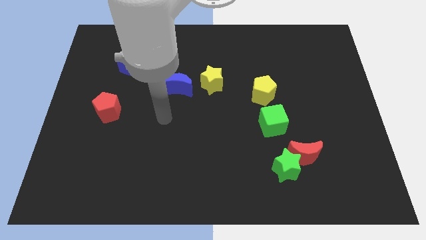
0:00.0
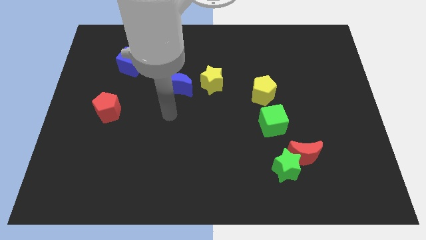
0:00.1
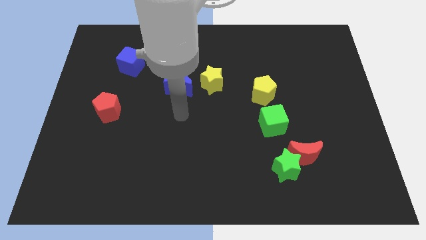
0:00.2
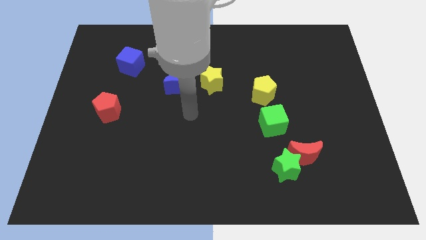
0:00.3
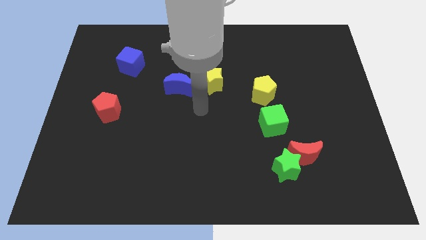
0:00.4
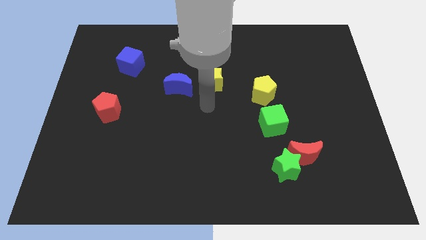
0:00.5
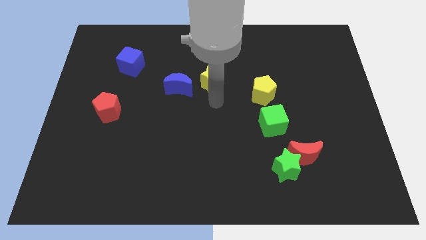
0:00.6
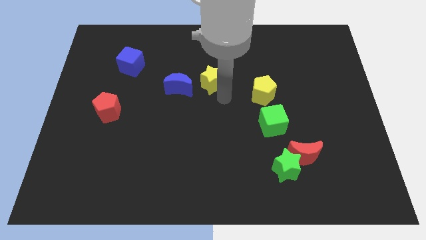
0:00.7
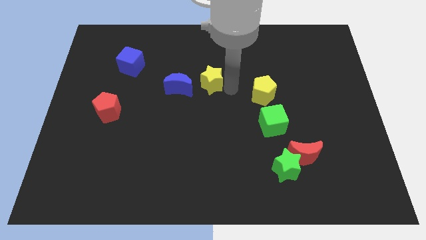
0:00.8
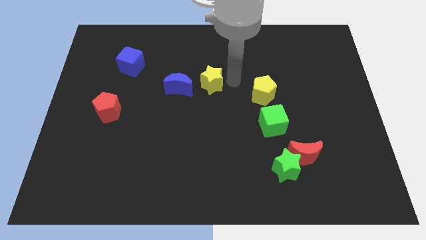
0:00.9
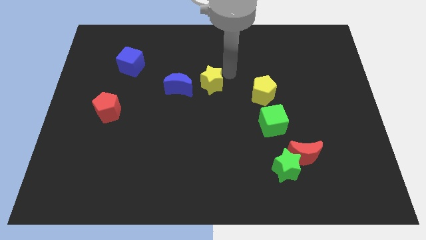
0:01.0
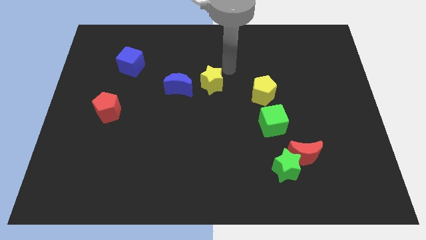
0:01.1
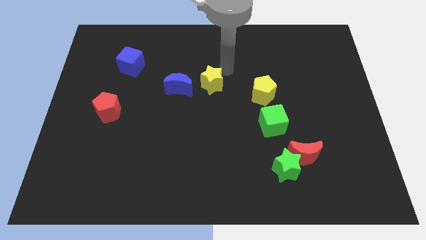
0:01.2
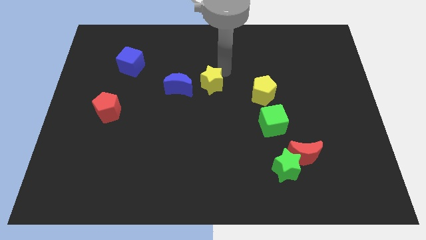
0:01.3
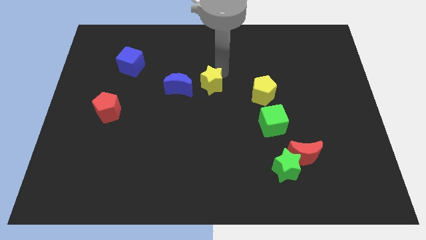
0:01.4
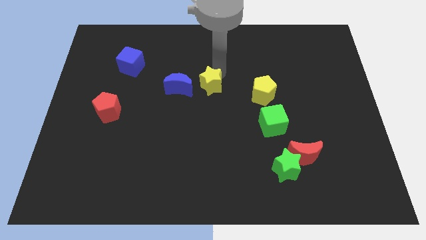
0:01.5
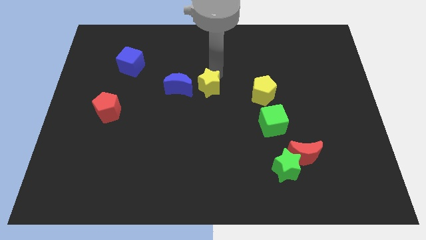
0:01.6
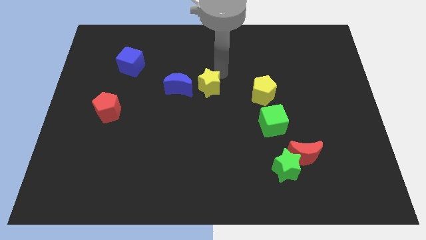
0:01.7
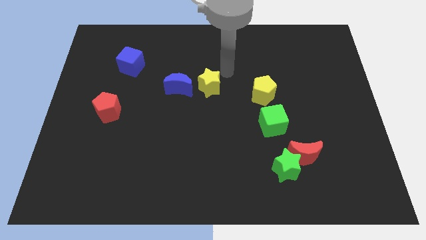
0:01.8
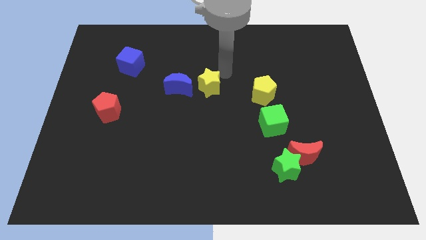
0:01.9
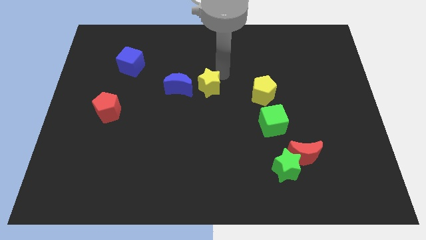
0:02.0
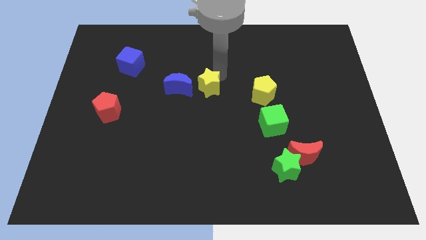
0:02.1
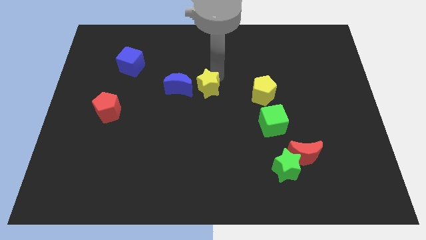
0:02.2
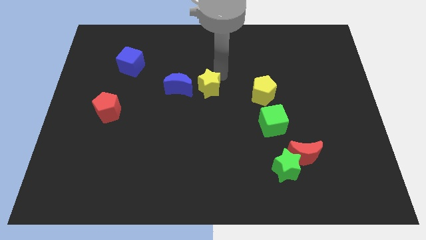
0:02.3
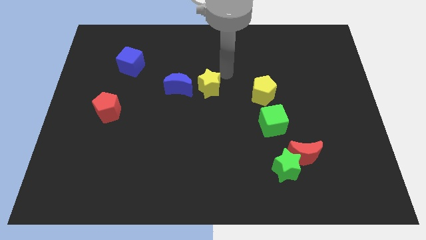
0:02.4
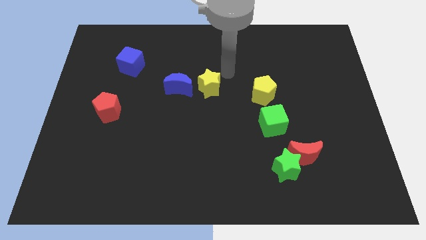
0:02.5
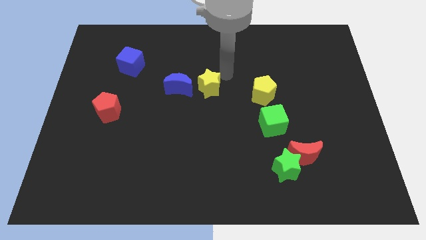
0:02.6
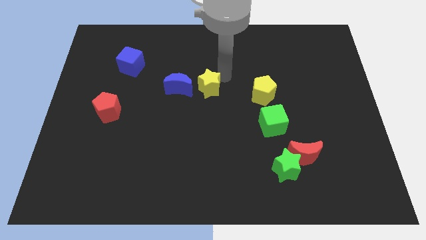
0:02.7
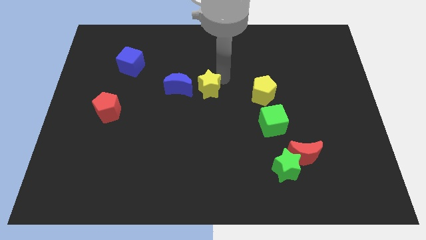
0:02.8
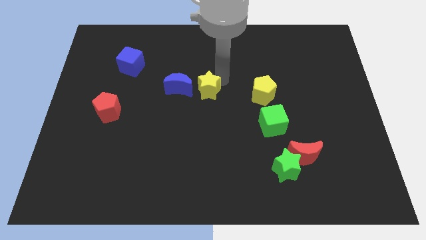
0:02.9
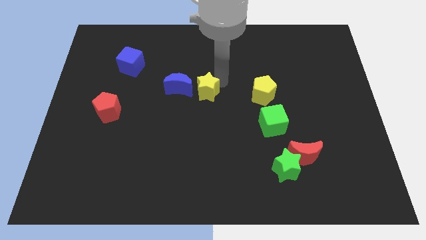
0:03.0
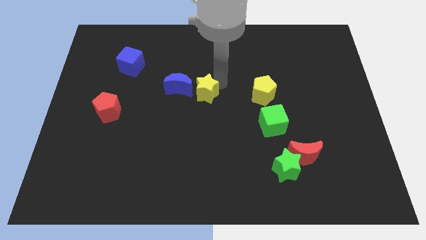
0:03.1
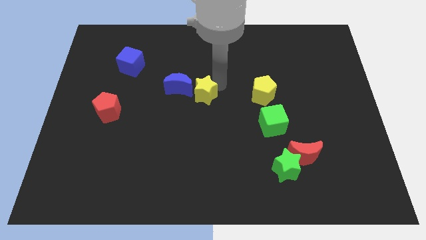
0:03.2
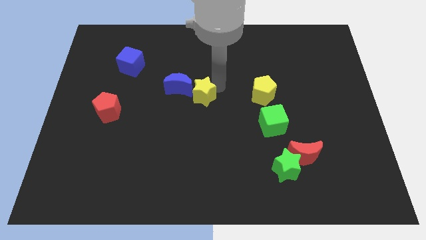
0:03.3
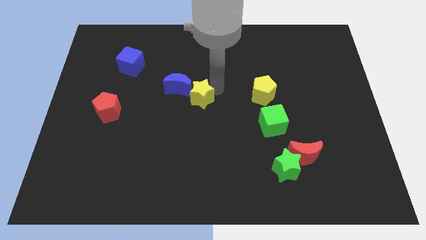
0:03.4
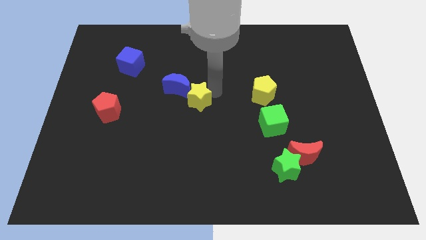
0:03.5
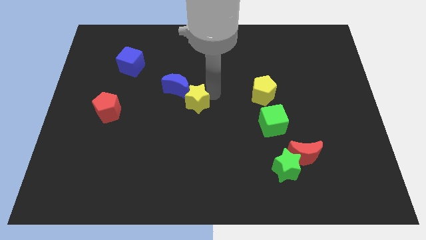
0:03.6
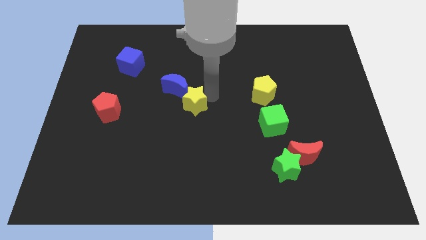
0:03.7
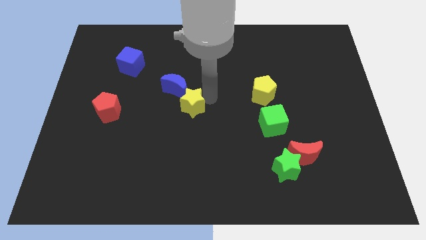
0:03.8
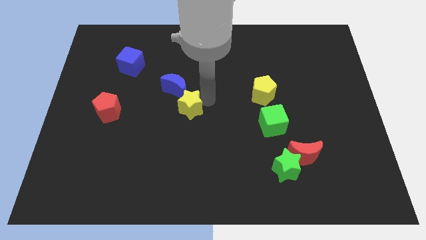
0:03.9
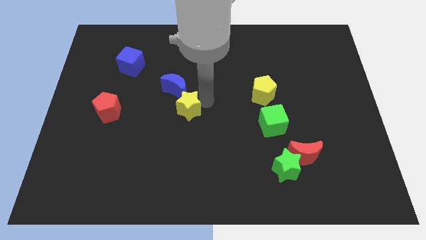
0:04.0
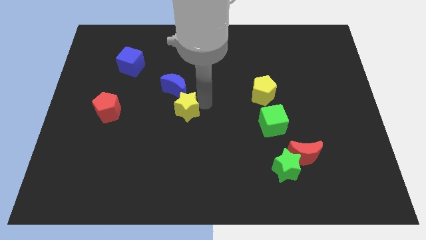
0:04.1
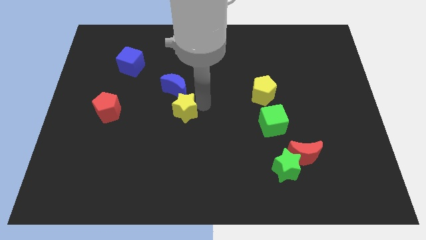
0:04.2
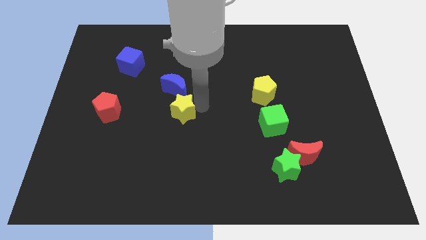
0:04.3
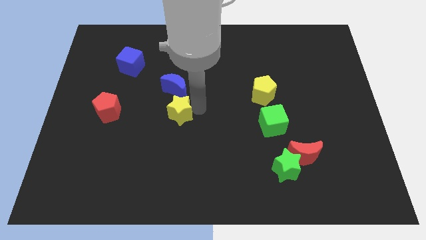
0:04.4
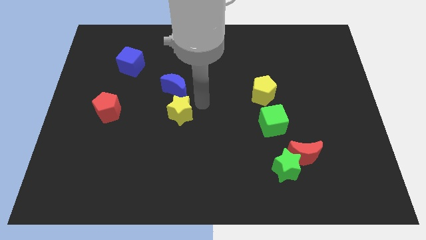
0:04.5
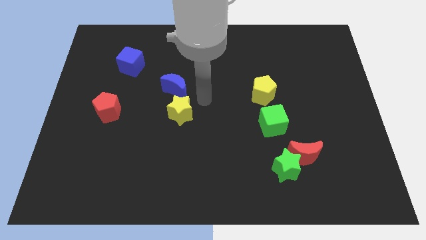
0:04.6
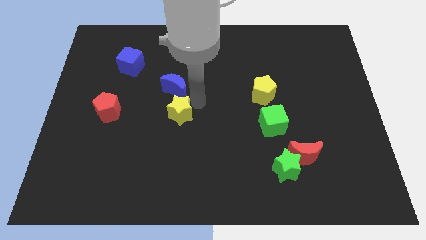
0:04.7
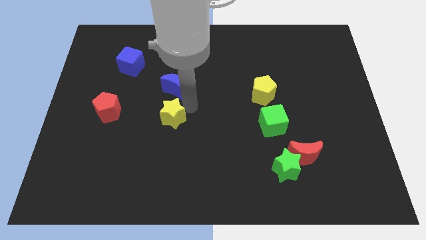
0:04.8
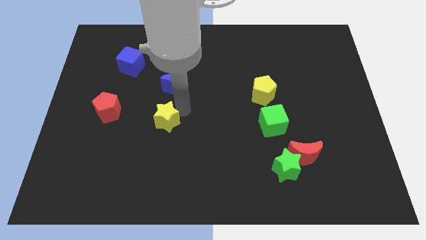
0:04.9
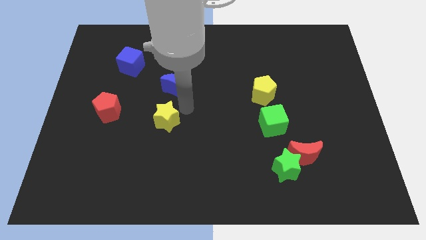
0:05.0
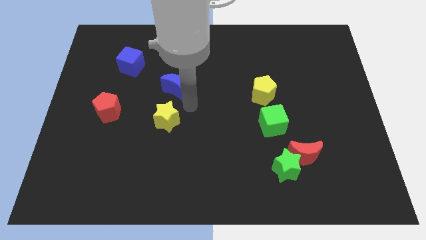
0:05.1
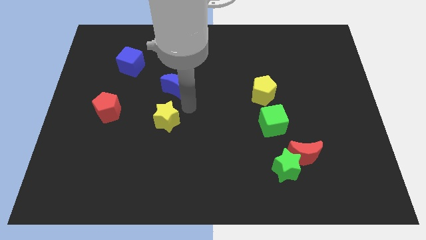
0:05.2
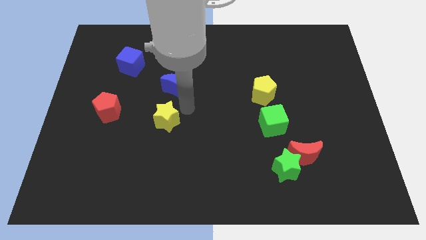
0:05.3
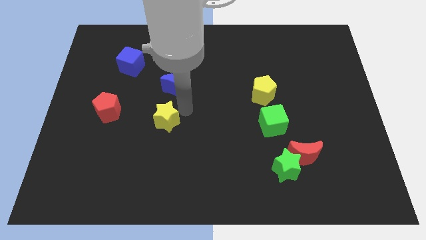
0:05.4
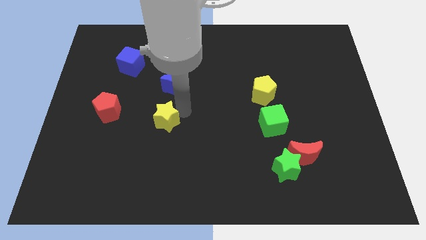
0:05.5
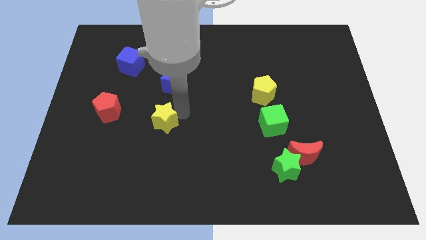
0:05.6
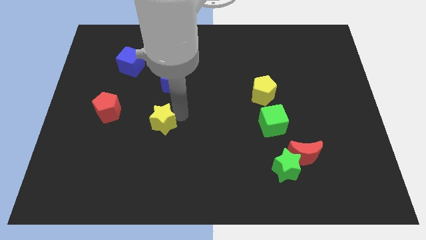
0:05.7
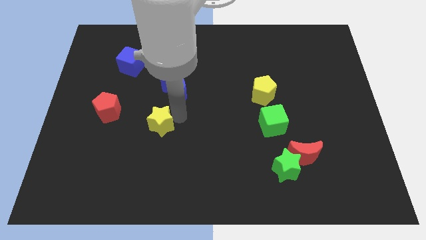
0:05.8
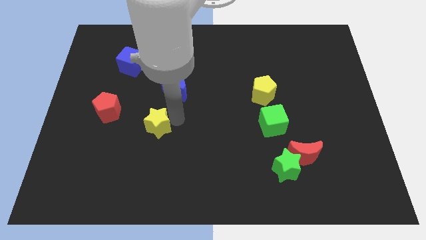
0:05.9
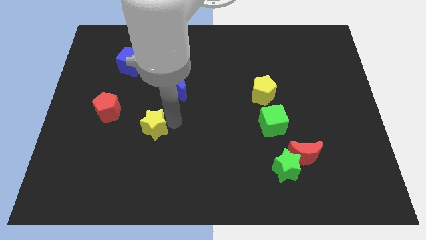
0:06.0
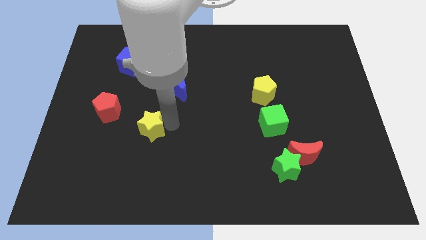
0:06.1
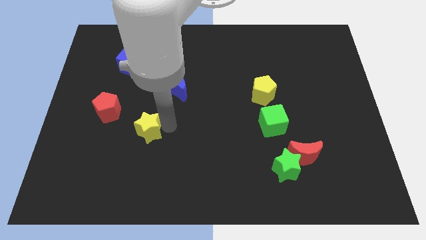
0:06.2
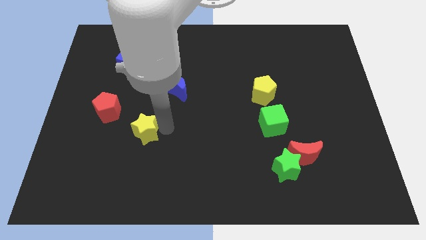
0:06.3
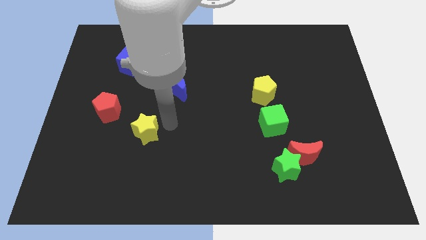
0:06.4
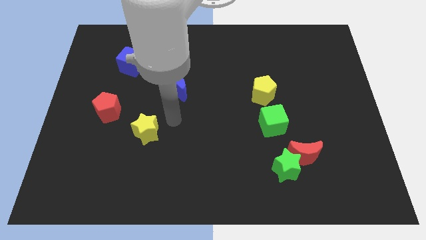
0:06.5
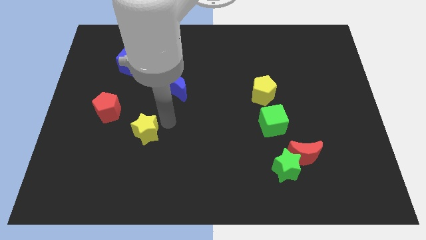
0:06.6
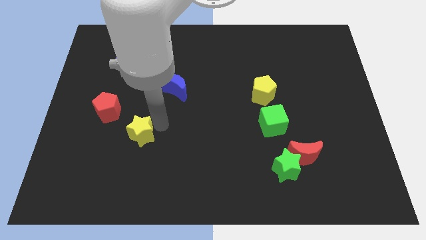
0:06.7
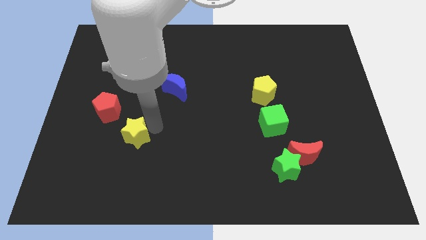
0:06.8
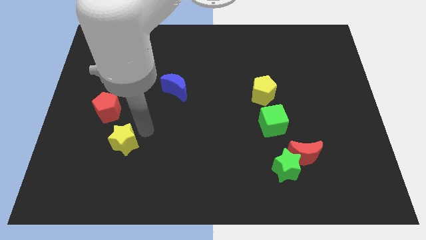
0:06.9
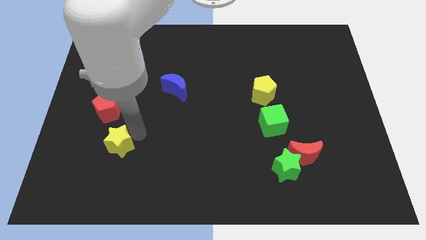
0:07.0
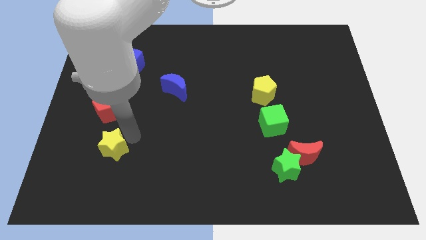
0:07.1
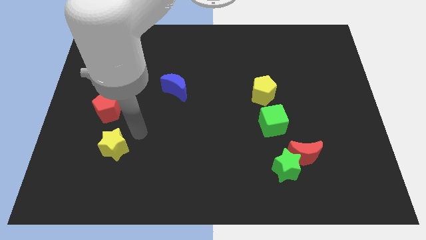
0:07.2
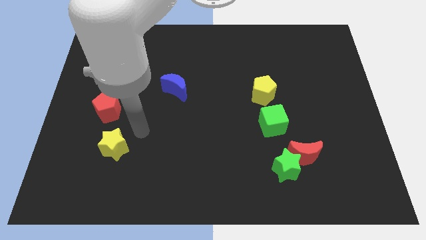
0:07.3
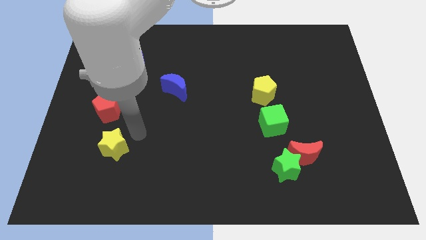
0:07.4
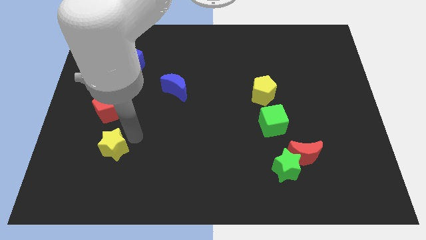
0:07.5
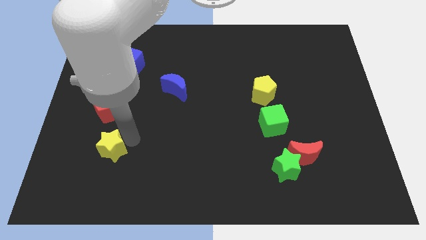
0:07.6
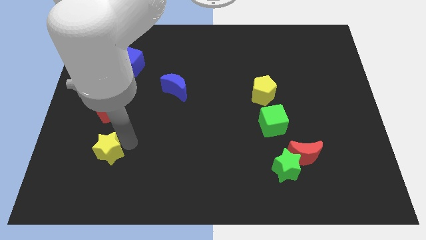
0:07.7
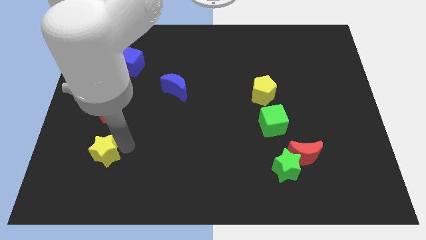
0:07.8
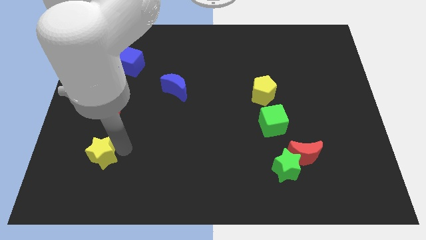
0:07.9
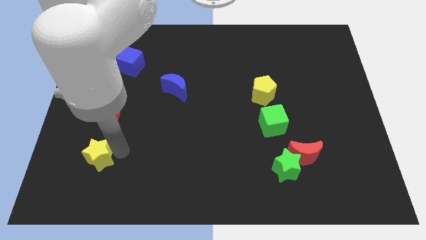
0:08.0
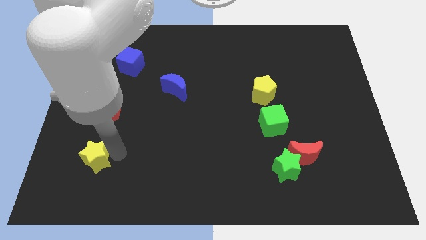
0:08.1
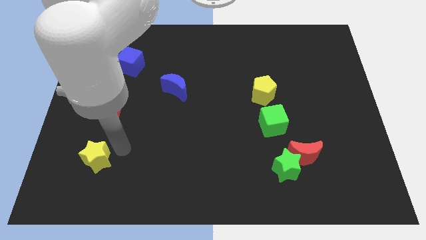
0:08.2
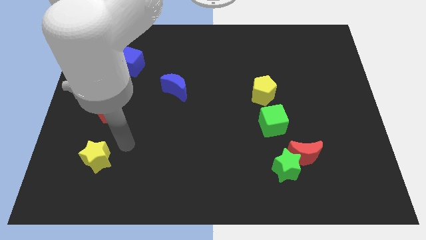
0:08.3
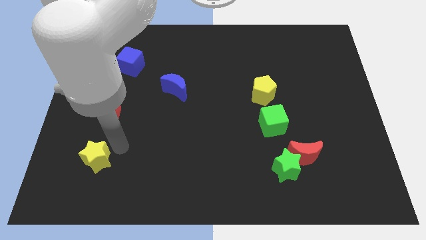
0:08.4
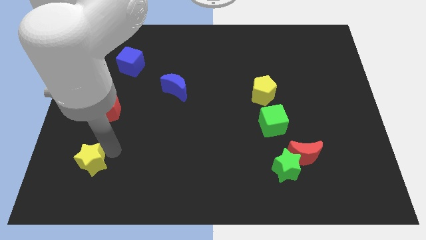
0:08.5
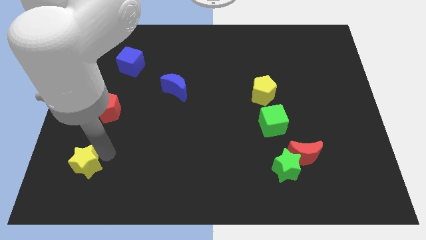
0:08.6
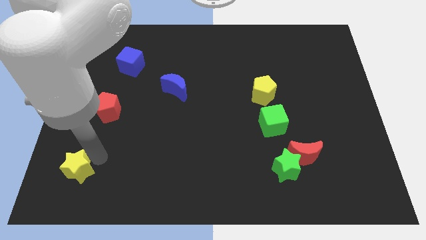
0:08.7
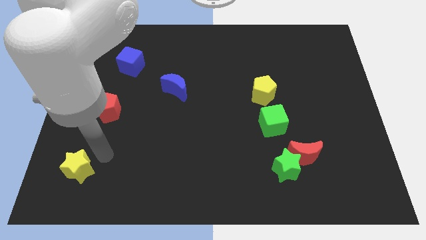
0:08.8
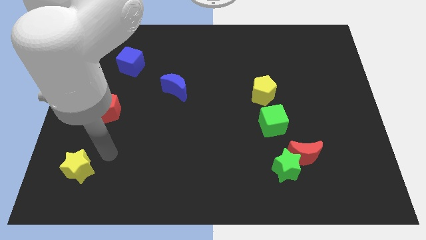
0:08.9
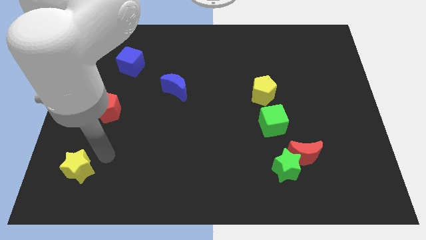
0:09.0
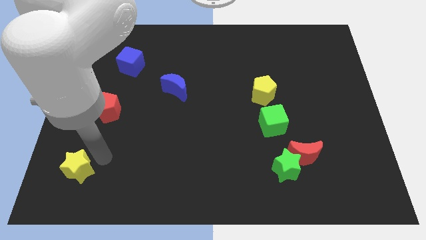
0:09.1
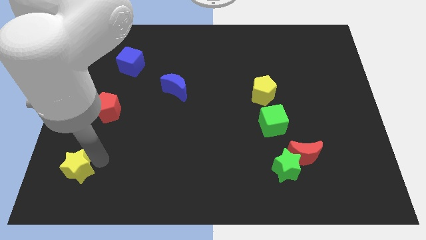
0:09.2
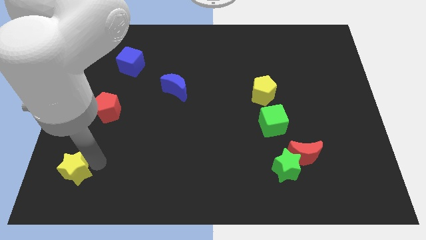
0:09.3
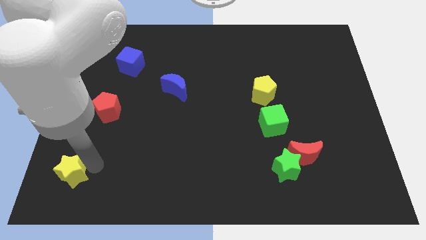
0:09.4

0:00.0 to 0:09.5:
slide the yellow star to the bottom left corner
